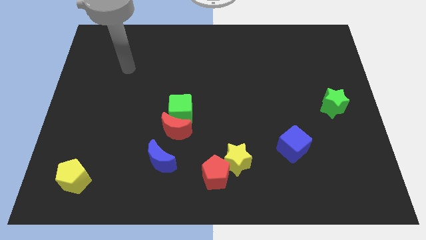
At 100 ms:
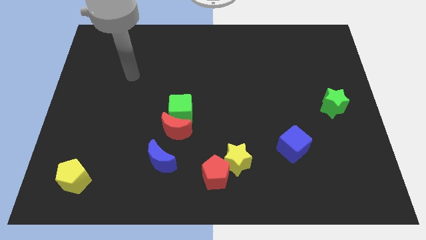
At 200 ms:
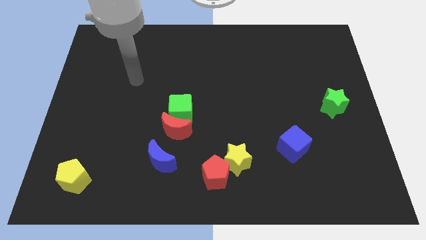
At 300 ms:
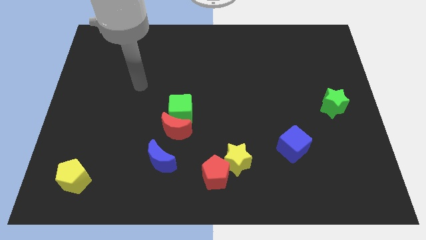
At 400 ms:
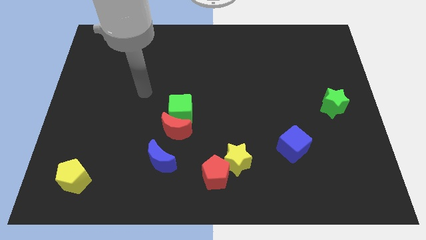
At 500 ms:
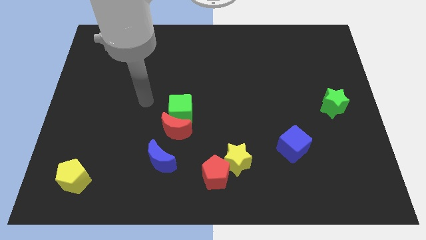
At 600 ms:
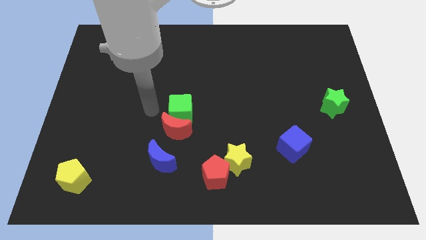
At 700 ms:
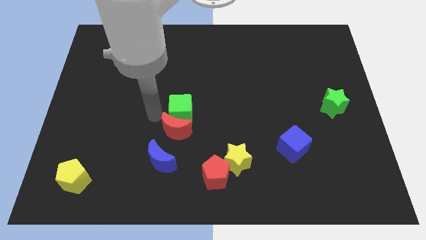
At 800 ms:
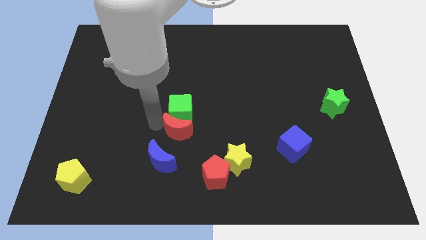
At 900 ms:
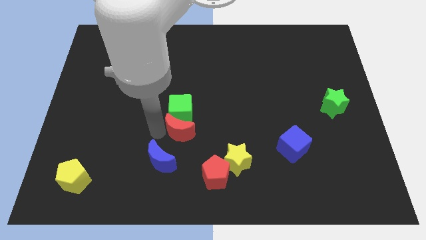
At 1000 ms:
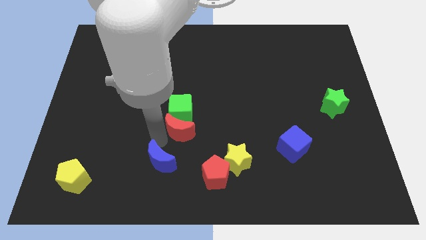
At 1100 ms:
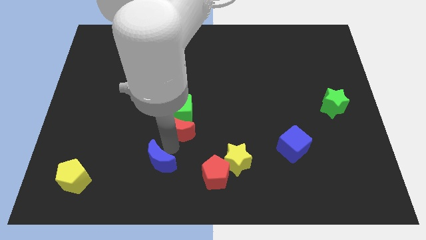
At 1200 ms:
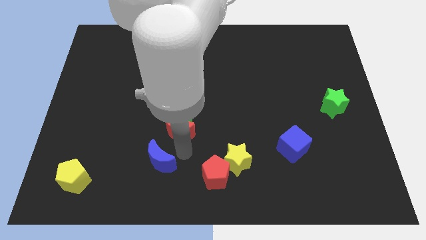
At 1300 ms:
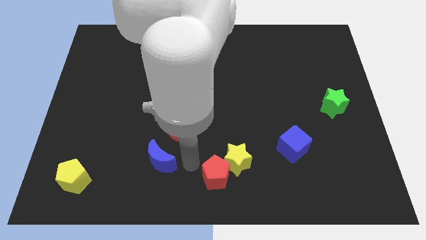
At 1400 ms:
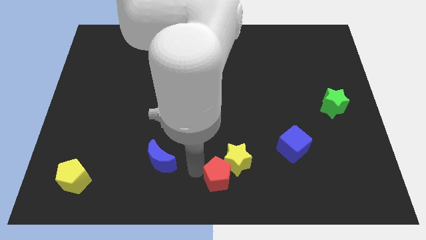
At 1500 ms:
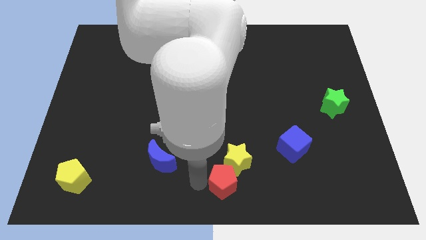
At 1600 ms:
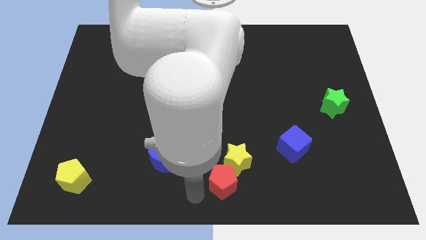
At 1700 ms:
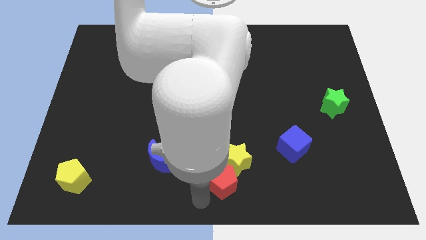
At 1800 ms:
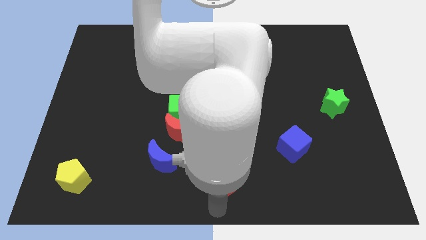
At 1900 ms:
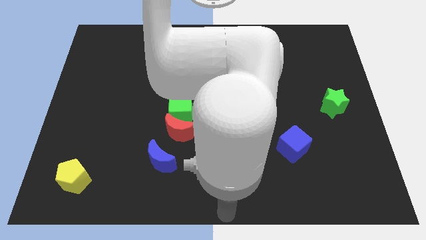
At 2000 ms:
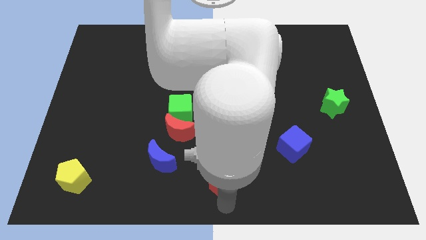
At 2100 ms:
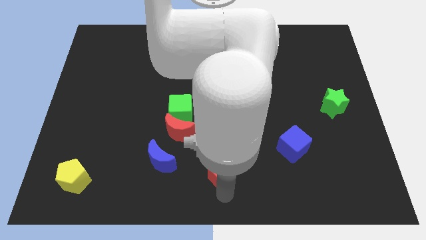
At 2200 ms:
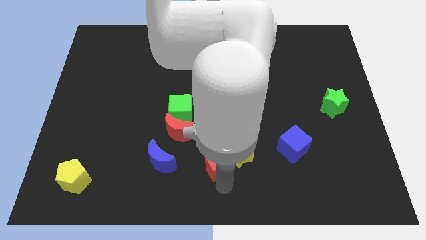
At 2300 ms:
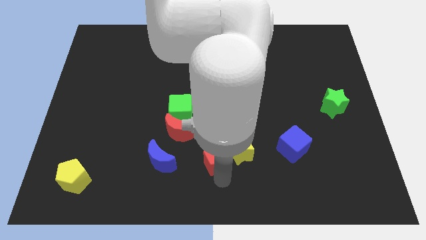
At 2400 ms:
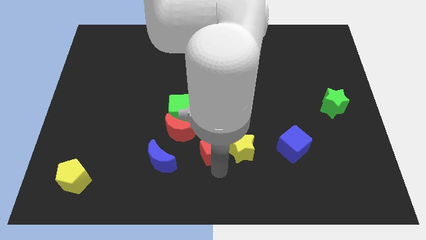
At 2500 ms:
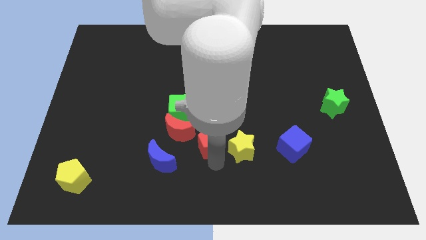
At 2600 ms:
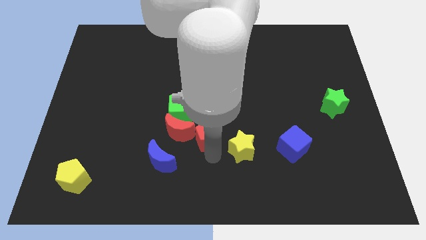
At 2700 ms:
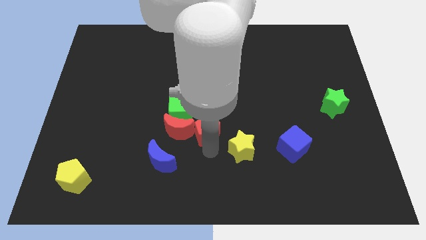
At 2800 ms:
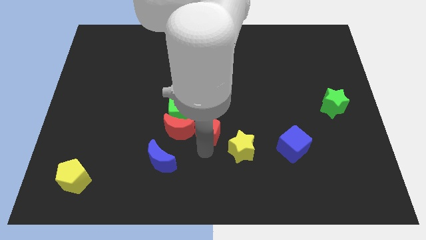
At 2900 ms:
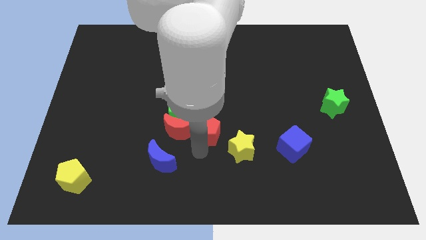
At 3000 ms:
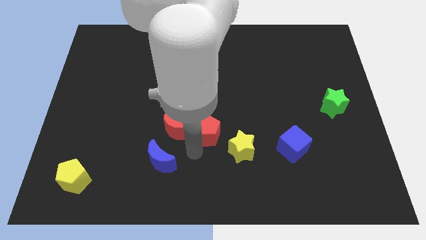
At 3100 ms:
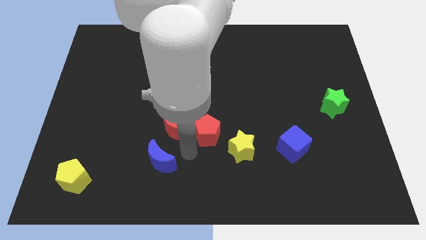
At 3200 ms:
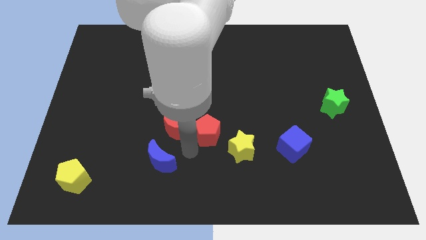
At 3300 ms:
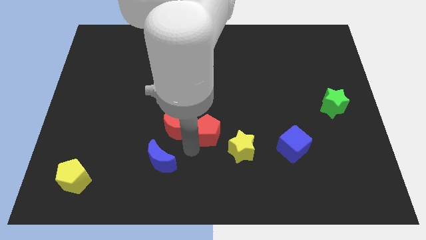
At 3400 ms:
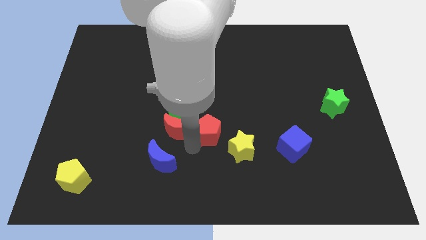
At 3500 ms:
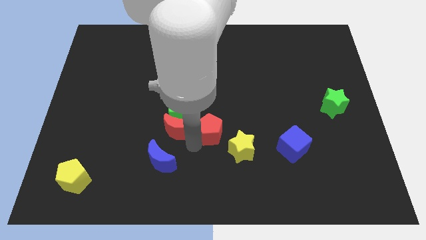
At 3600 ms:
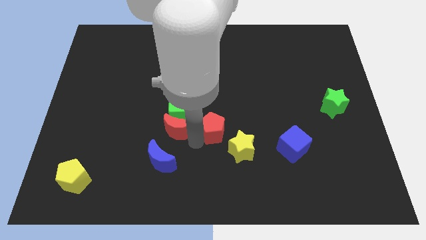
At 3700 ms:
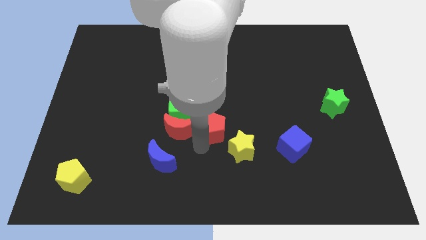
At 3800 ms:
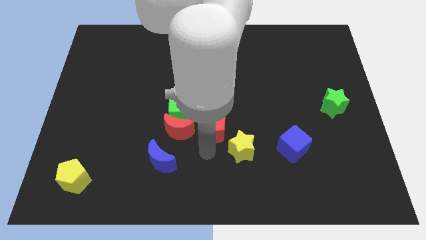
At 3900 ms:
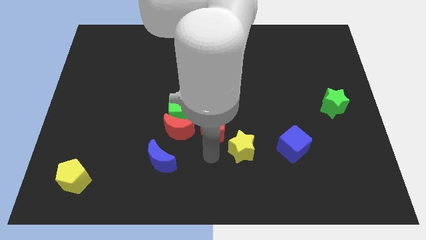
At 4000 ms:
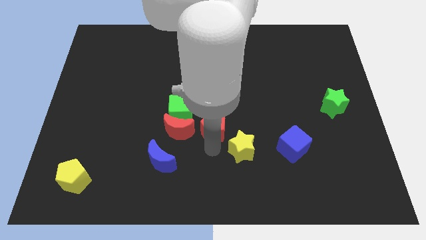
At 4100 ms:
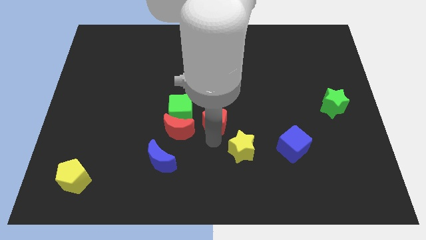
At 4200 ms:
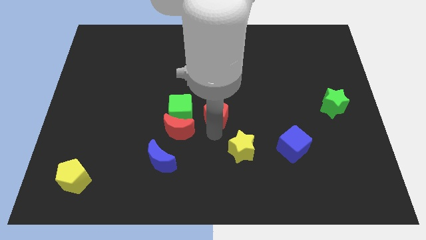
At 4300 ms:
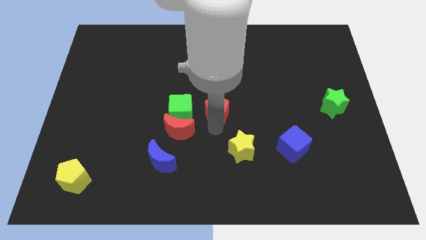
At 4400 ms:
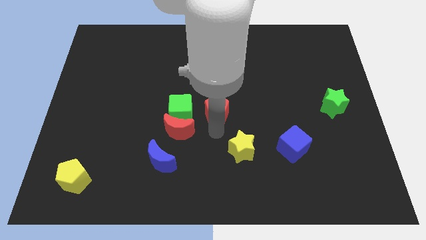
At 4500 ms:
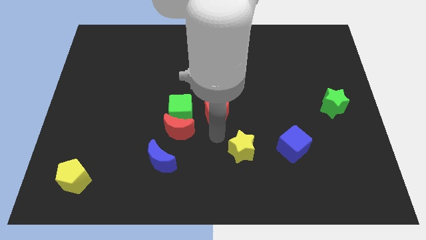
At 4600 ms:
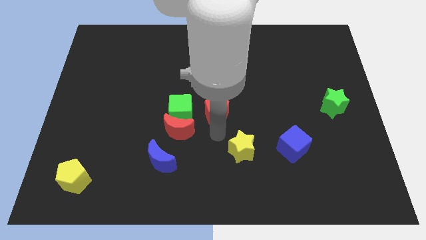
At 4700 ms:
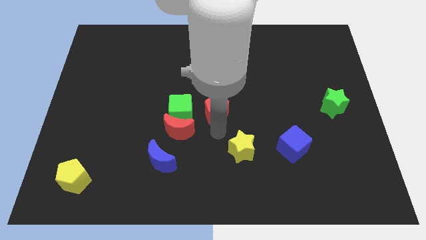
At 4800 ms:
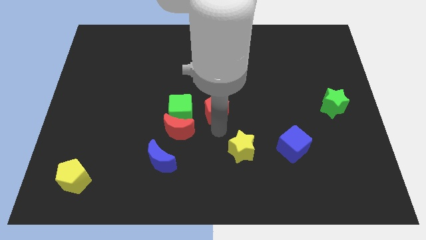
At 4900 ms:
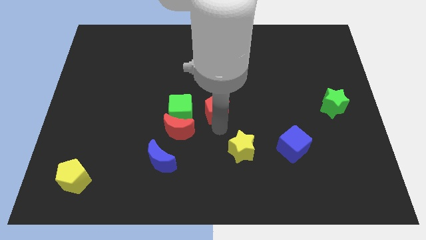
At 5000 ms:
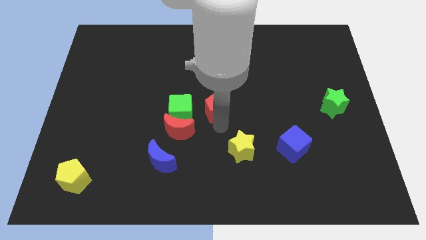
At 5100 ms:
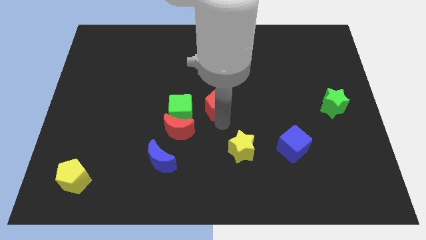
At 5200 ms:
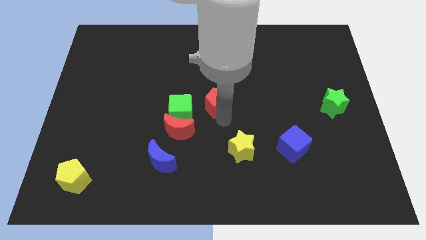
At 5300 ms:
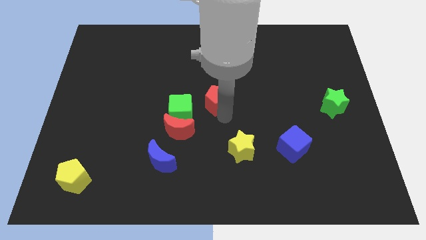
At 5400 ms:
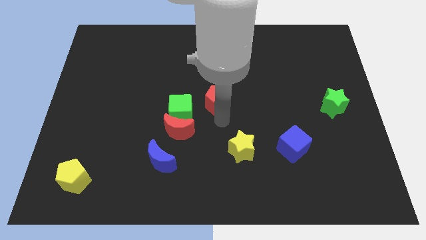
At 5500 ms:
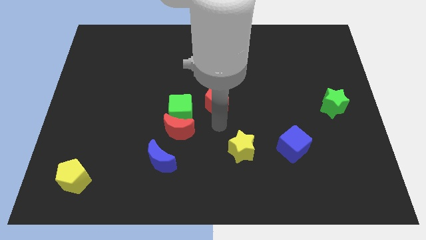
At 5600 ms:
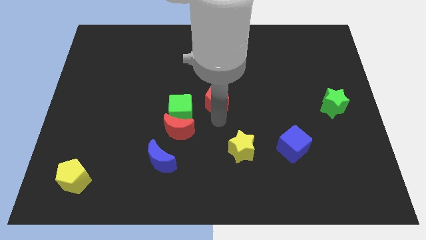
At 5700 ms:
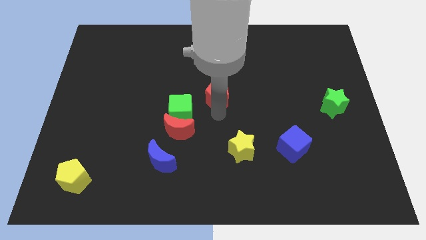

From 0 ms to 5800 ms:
push the red pentagon up

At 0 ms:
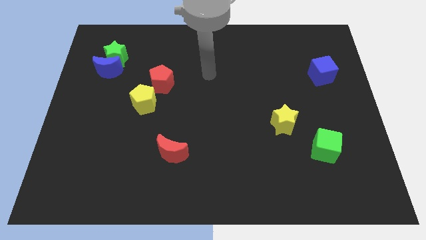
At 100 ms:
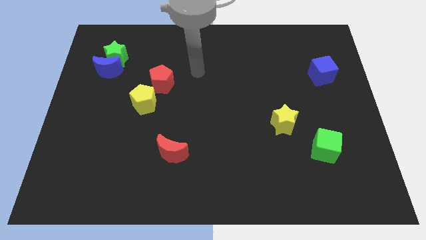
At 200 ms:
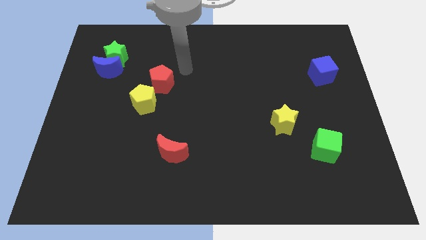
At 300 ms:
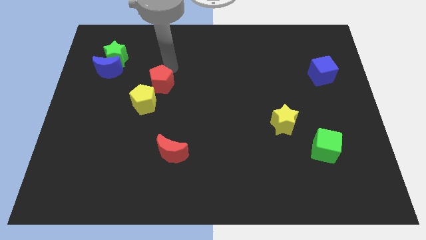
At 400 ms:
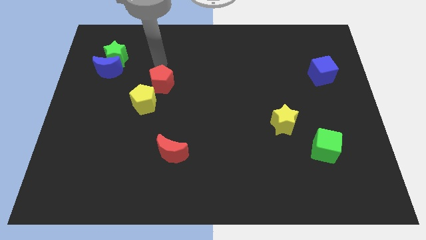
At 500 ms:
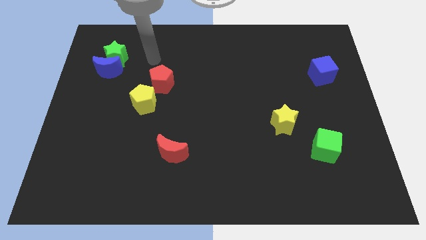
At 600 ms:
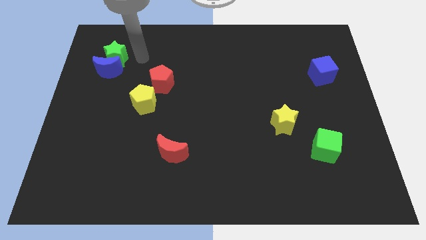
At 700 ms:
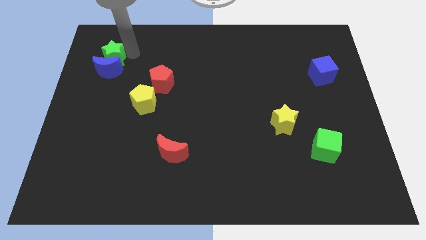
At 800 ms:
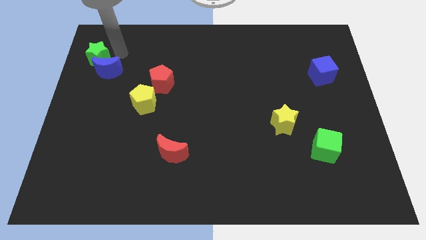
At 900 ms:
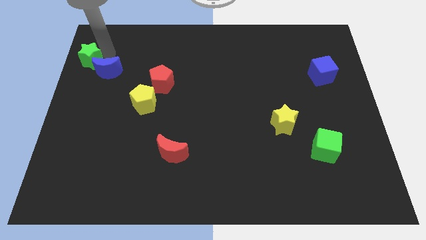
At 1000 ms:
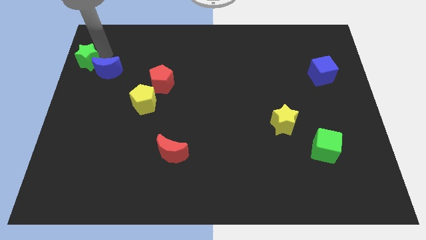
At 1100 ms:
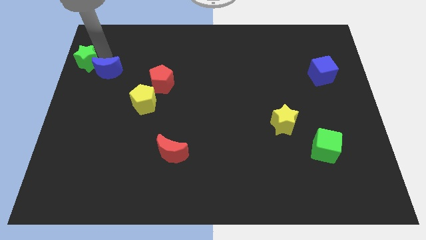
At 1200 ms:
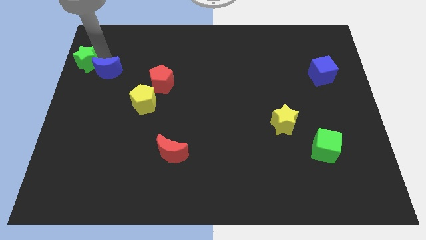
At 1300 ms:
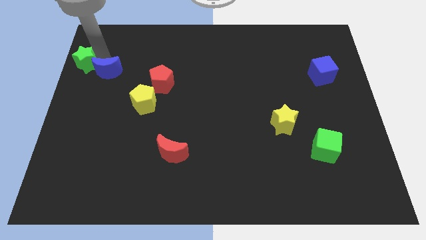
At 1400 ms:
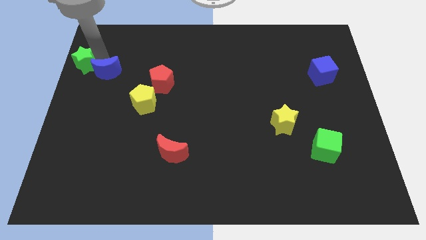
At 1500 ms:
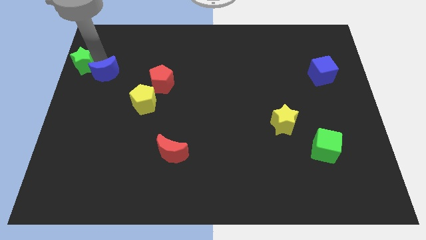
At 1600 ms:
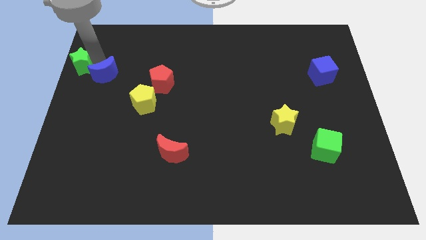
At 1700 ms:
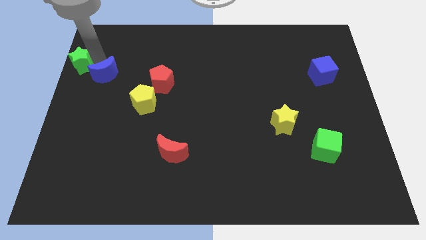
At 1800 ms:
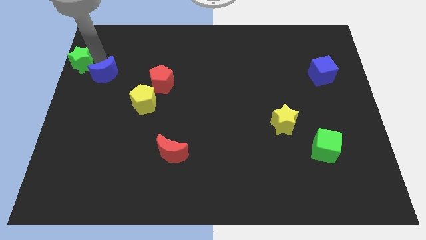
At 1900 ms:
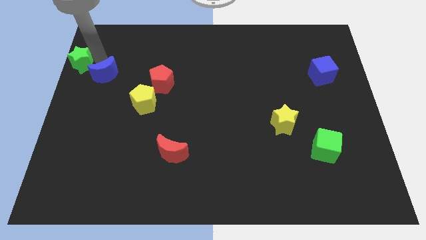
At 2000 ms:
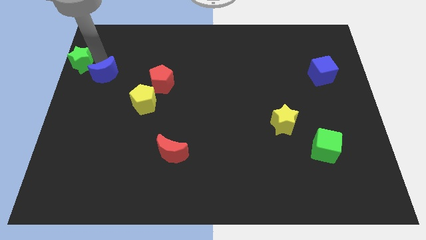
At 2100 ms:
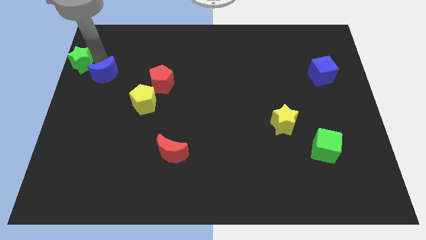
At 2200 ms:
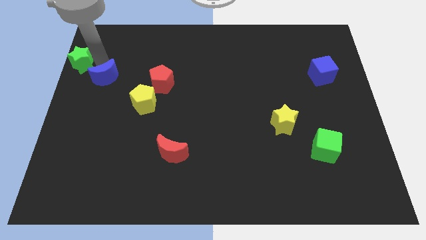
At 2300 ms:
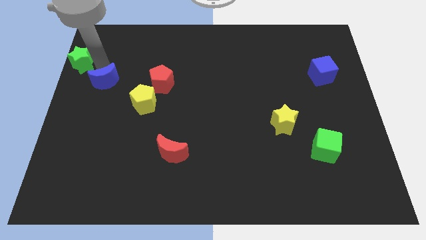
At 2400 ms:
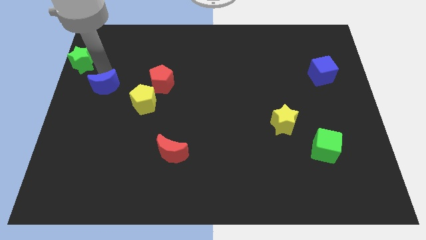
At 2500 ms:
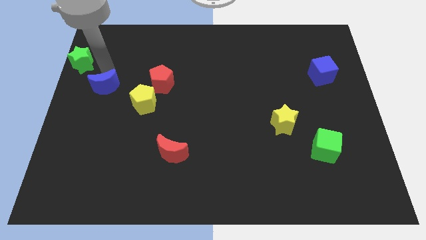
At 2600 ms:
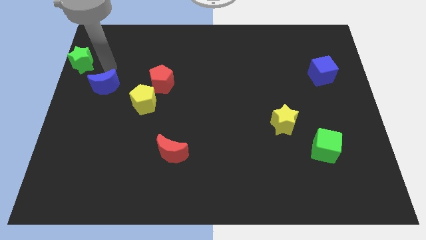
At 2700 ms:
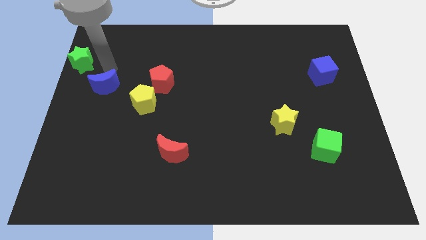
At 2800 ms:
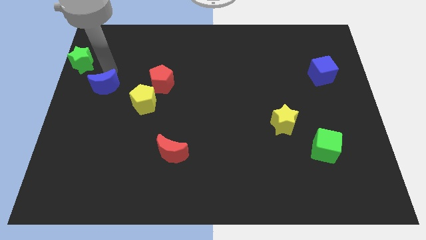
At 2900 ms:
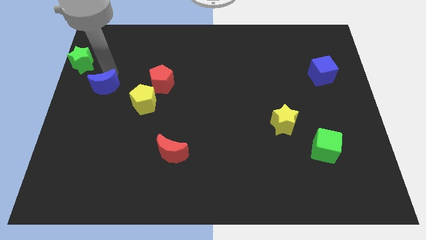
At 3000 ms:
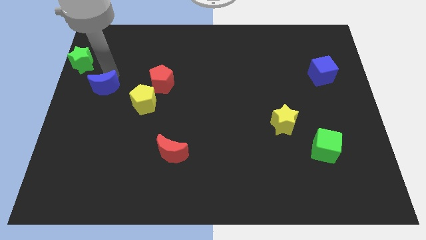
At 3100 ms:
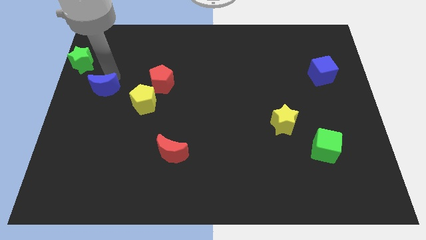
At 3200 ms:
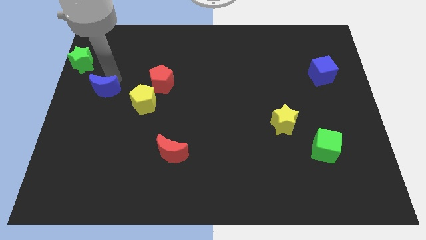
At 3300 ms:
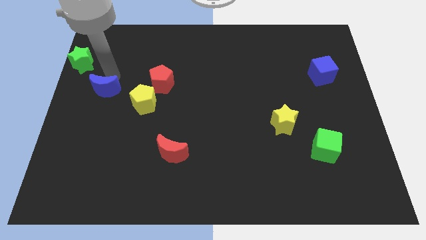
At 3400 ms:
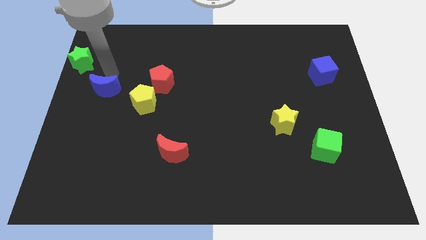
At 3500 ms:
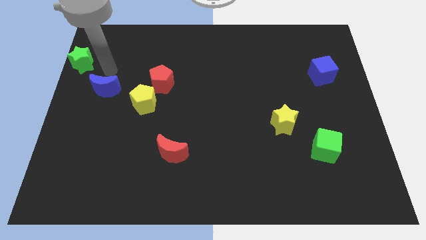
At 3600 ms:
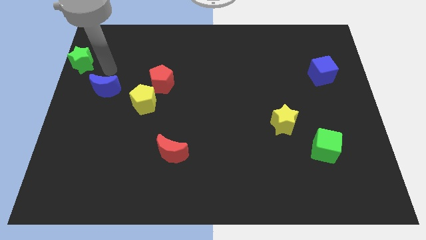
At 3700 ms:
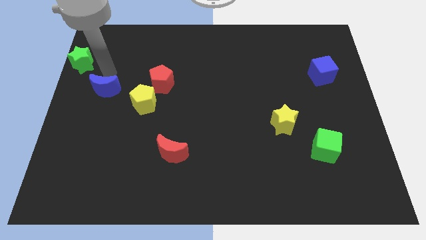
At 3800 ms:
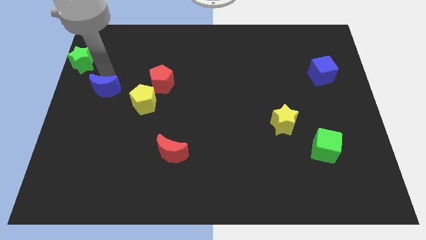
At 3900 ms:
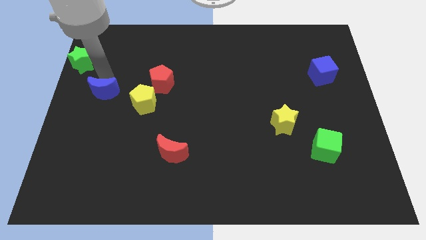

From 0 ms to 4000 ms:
slightly slide the blue moon downwards
